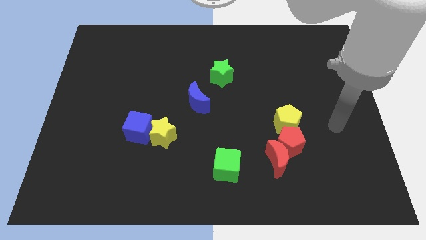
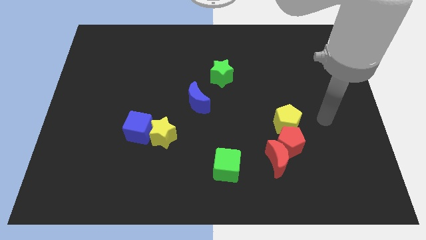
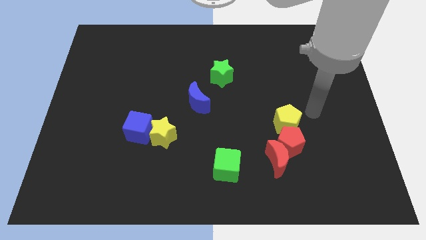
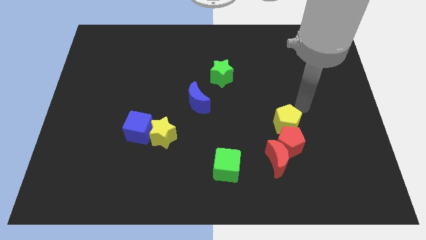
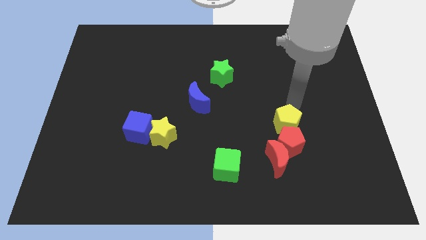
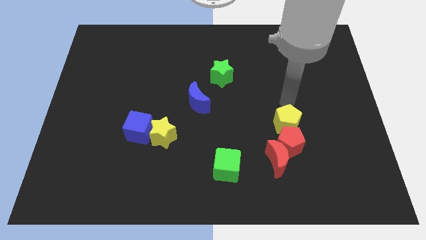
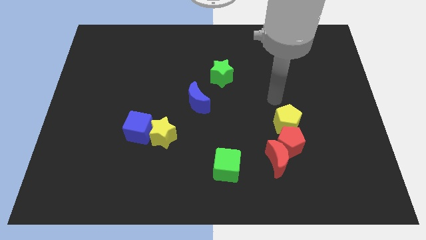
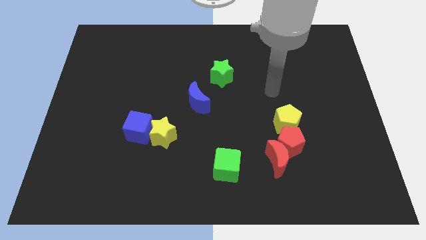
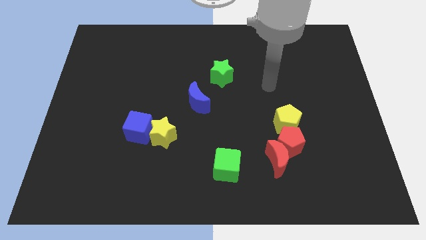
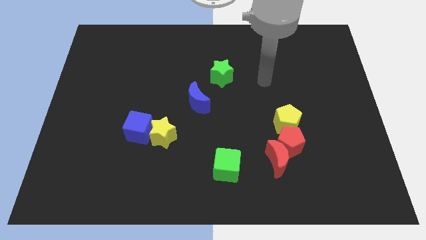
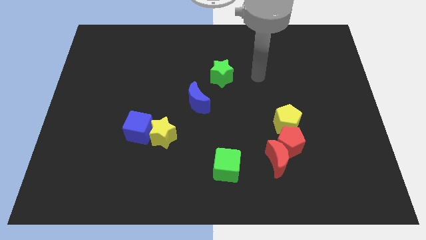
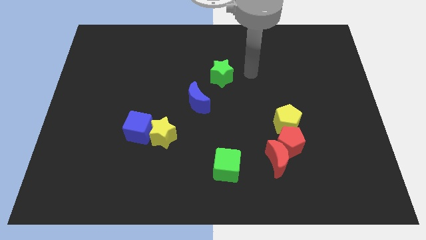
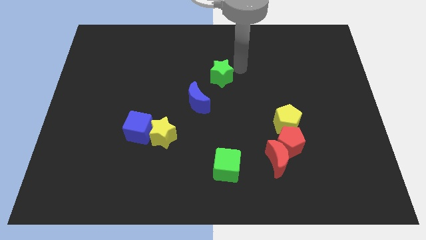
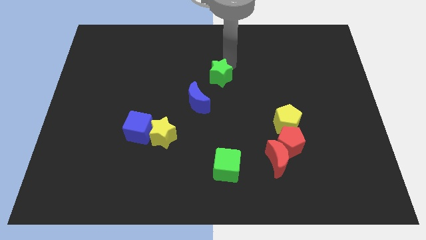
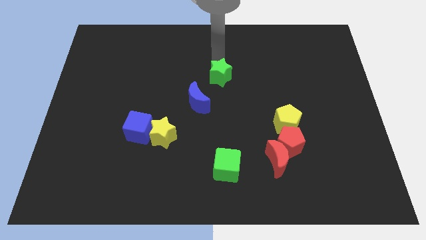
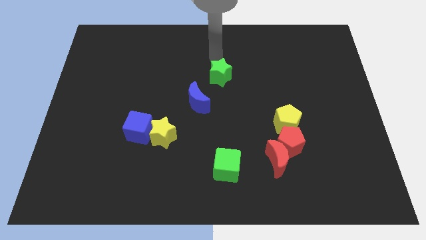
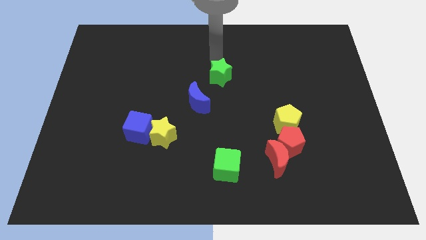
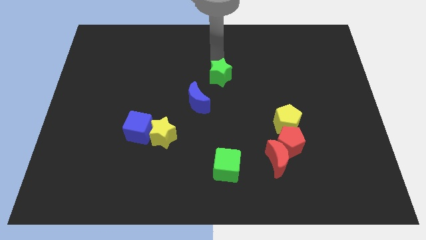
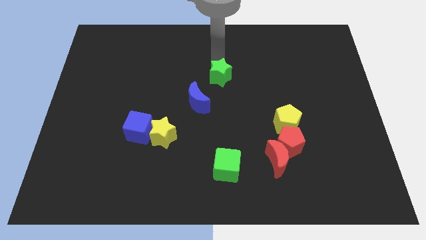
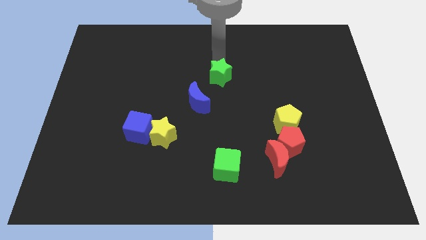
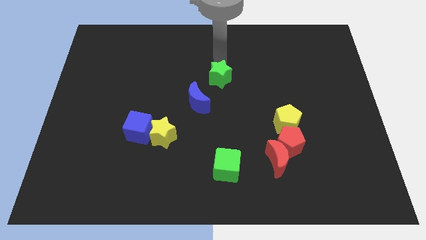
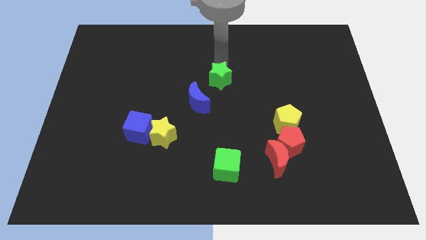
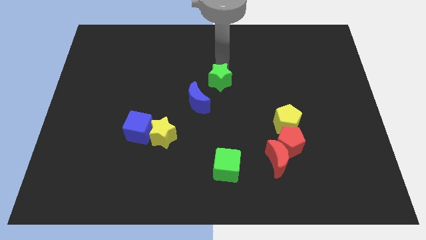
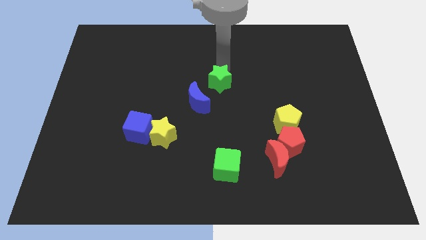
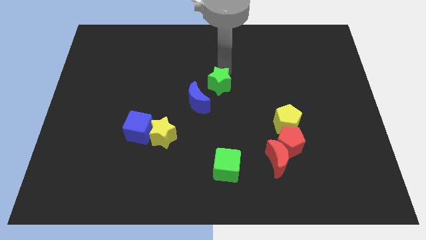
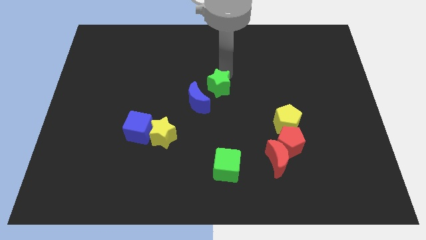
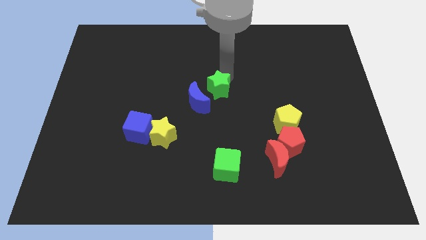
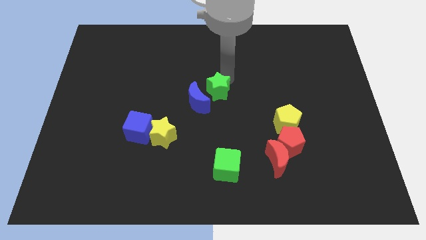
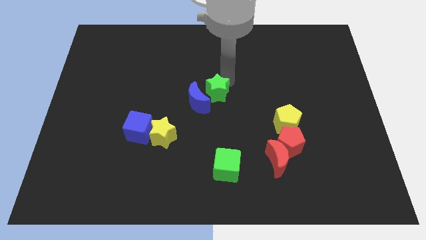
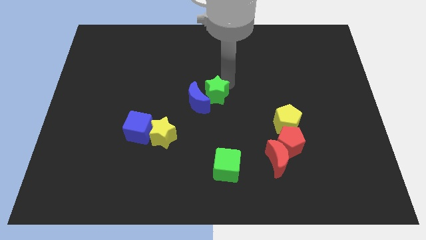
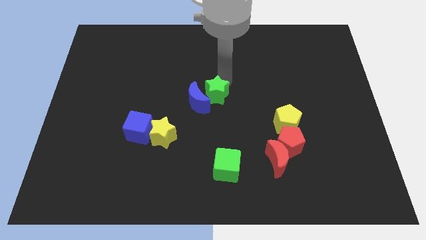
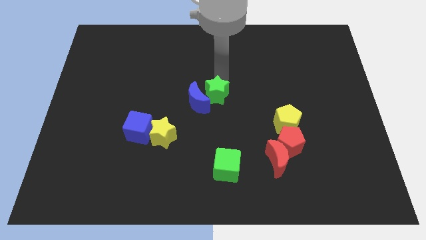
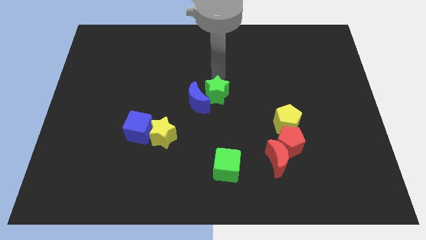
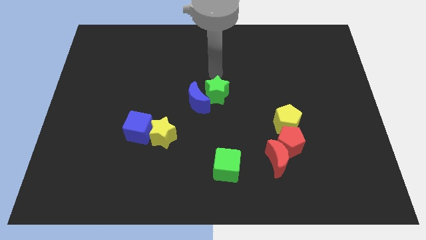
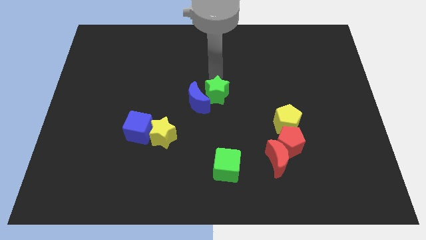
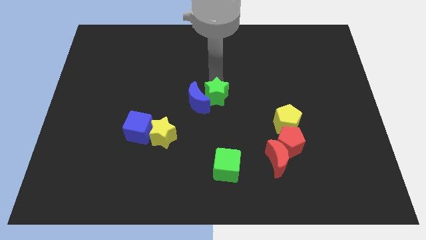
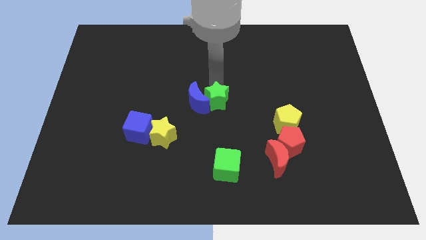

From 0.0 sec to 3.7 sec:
slightly push the green star down

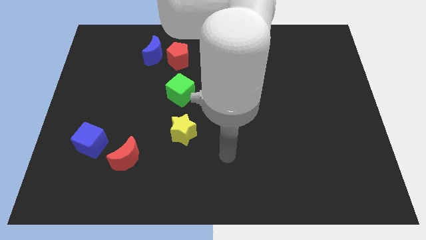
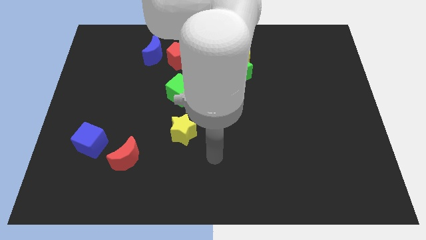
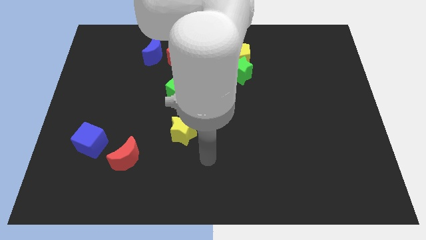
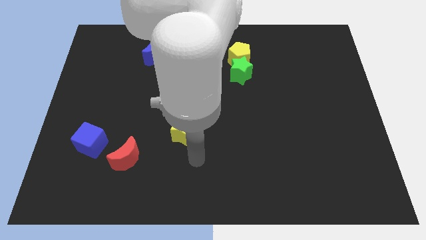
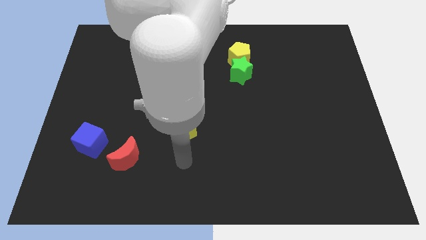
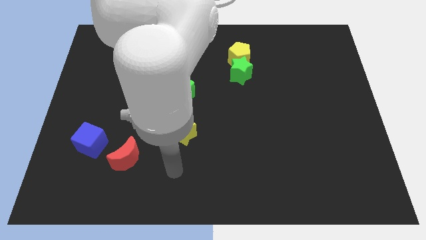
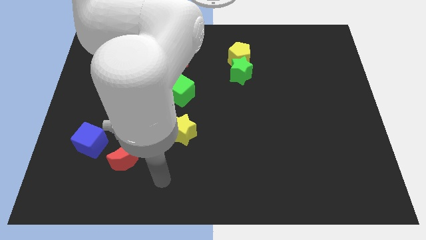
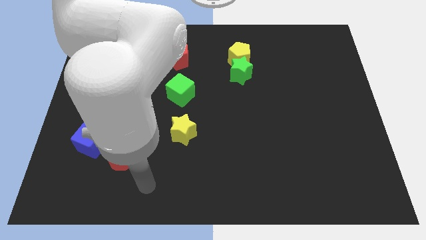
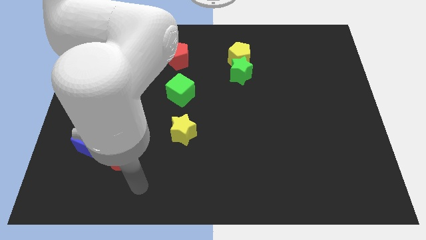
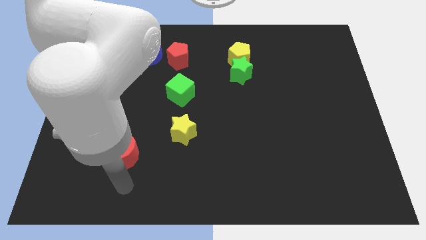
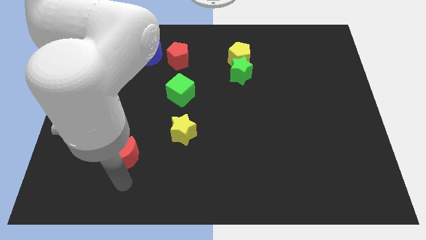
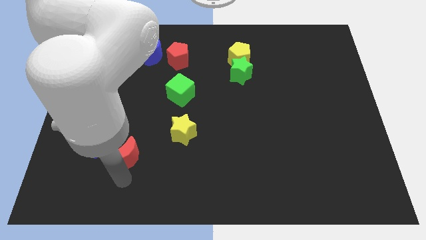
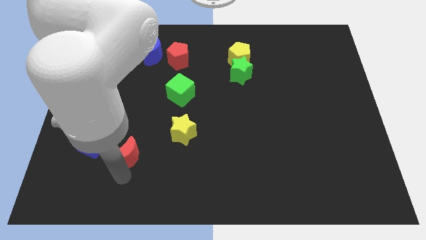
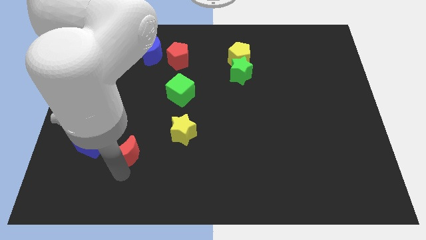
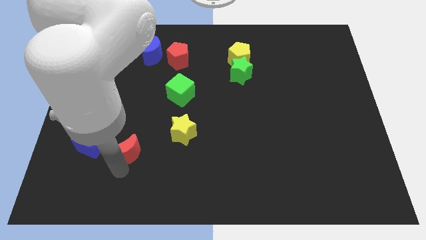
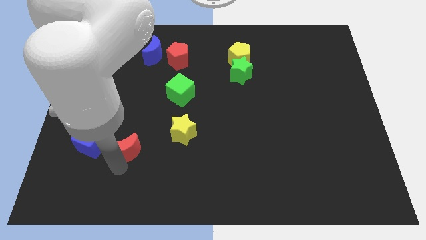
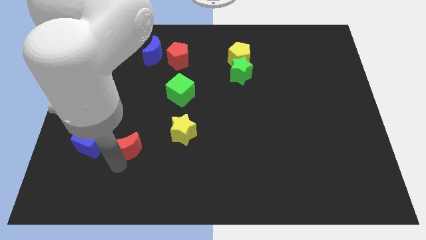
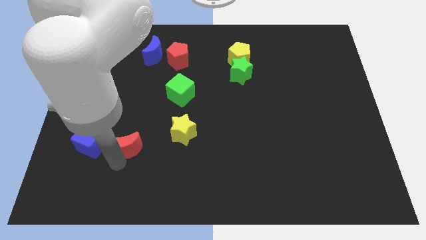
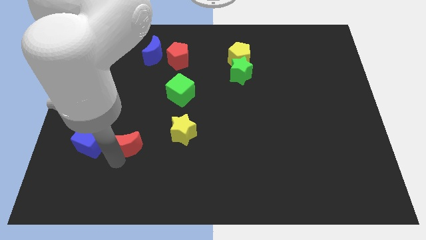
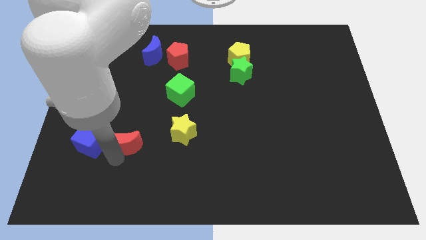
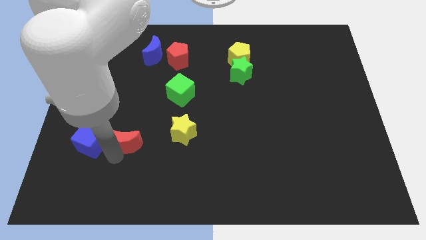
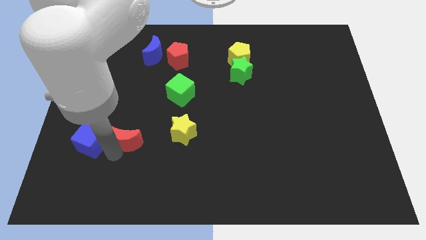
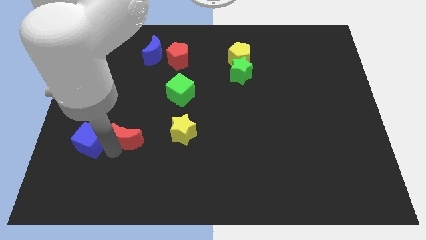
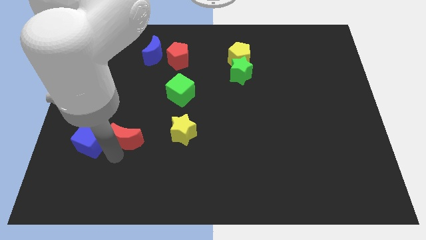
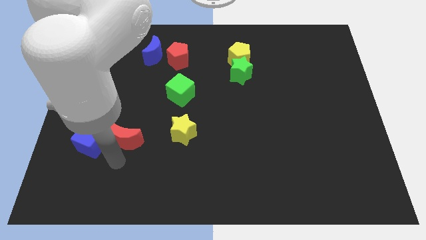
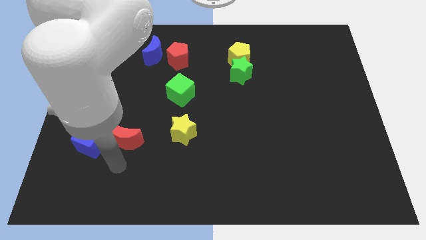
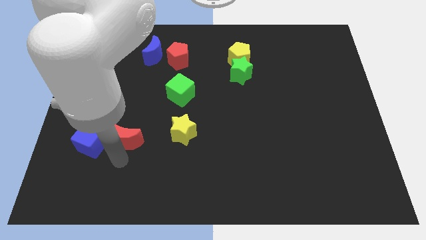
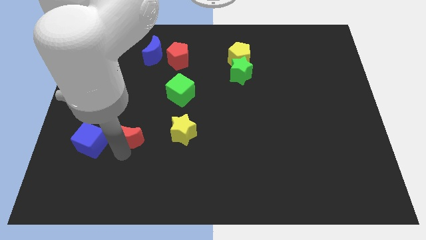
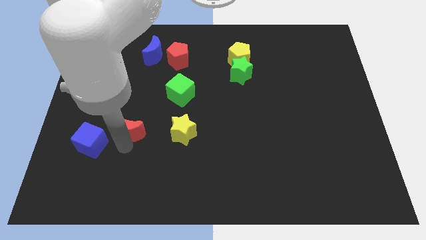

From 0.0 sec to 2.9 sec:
move the red moon slightly up

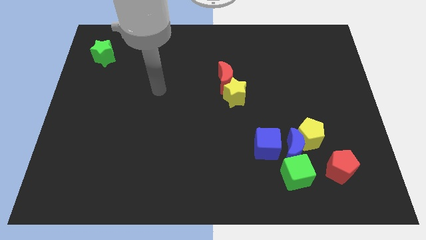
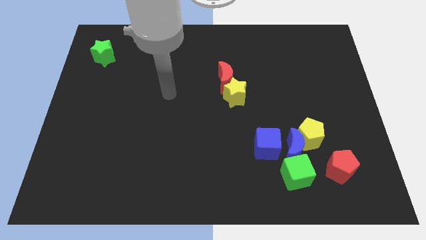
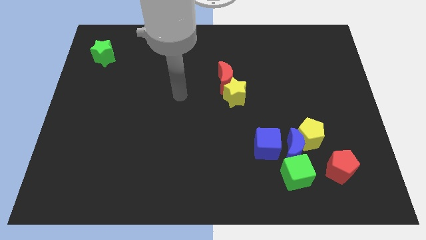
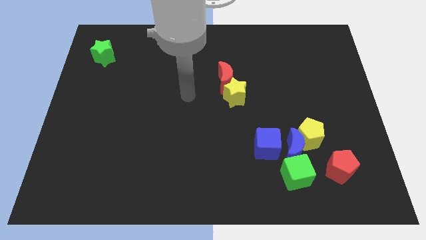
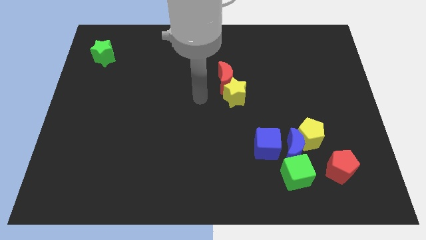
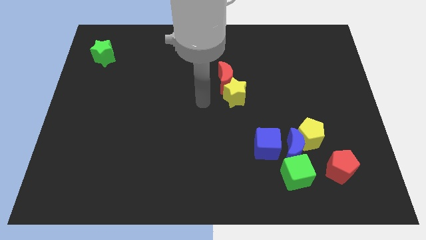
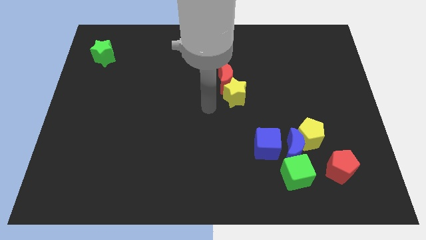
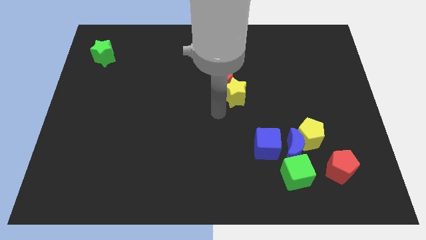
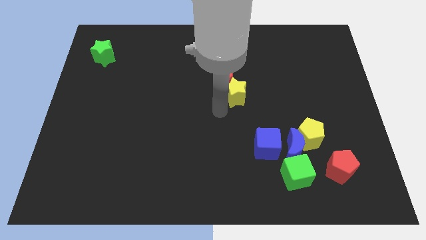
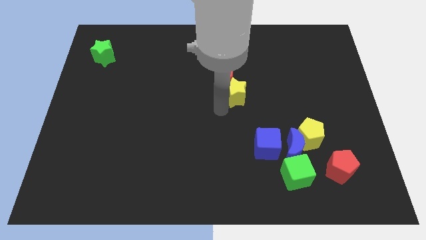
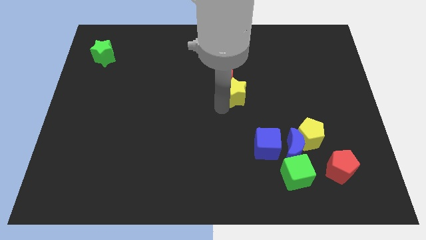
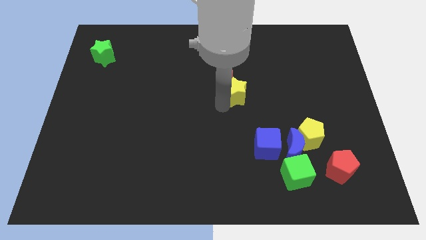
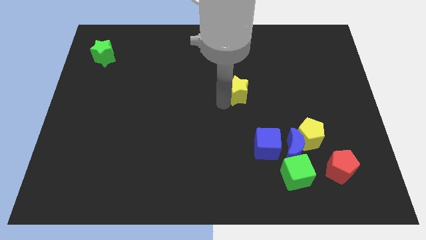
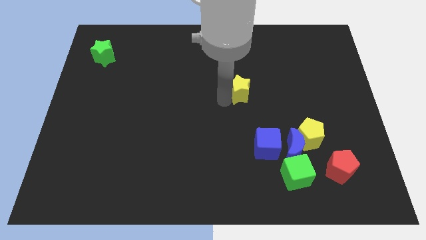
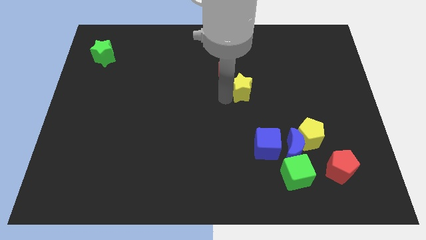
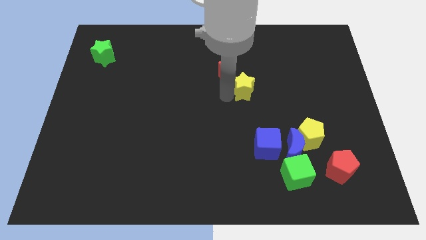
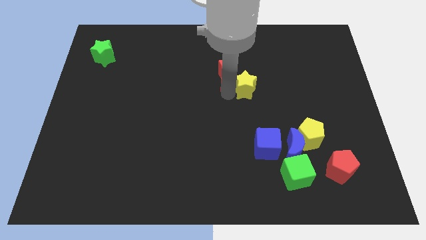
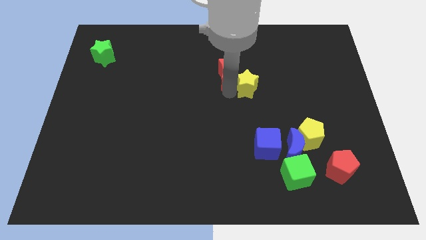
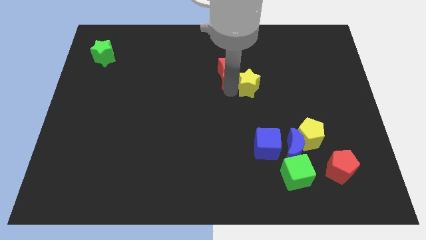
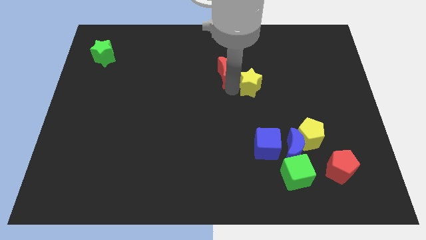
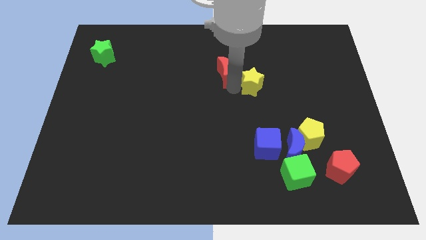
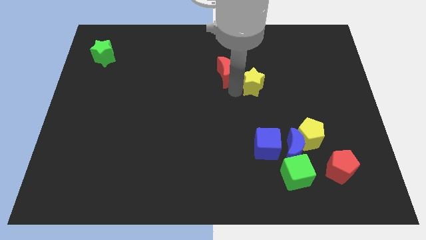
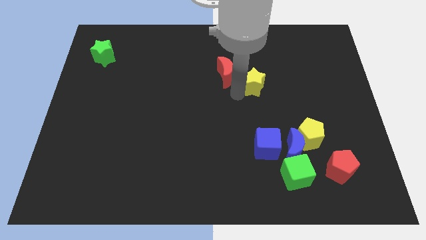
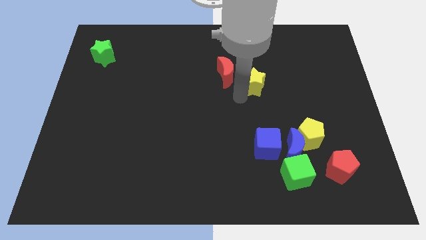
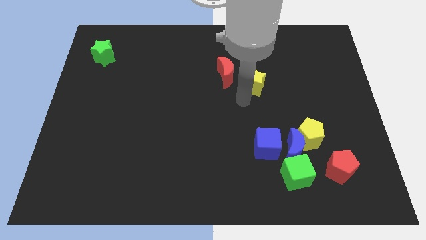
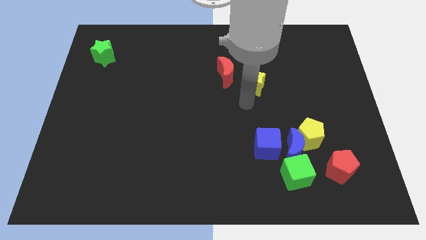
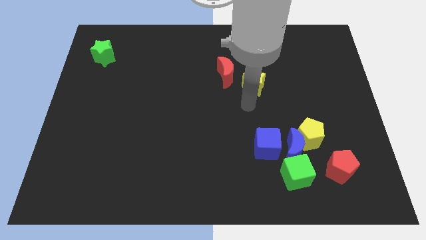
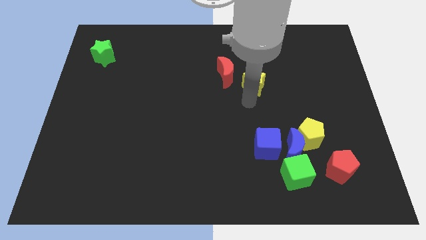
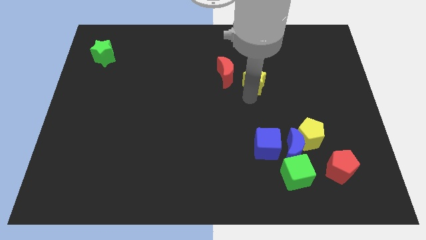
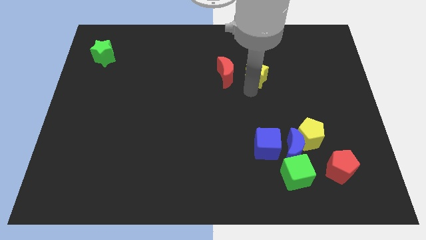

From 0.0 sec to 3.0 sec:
move the yellow star upwards and to the right a little
